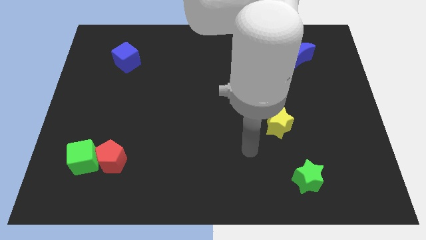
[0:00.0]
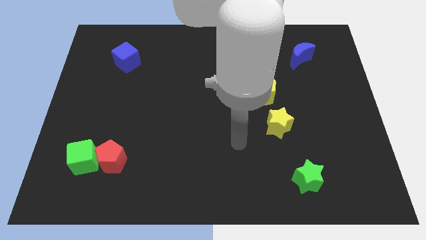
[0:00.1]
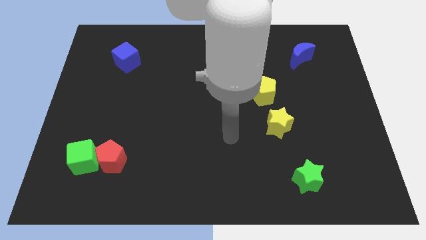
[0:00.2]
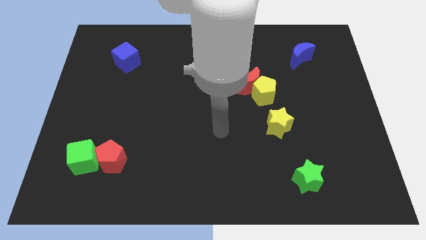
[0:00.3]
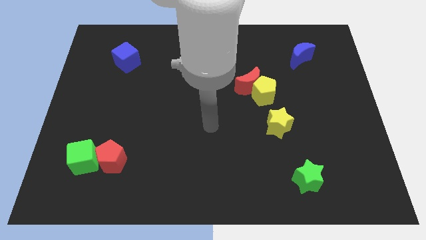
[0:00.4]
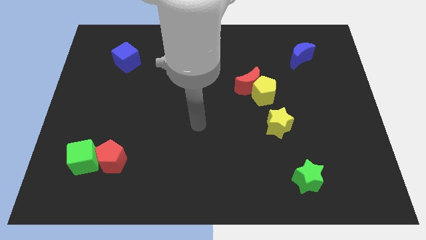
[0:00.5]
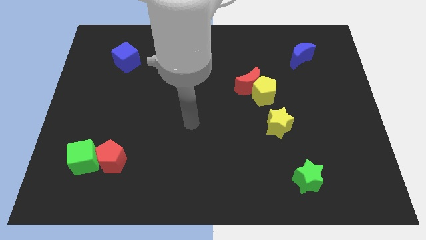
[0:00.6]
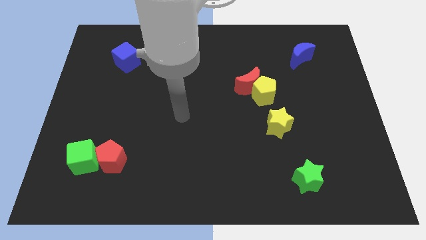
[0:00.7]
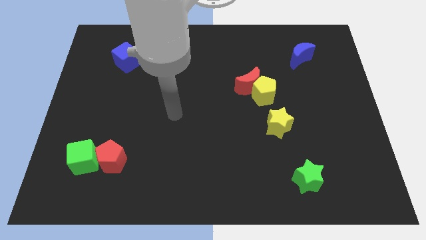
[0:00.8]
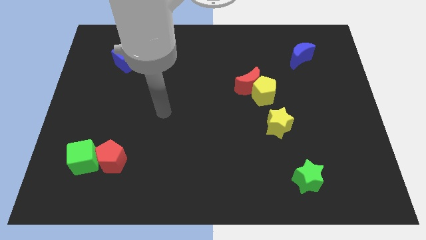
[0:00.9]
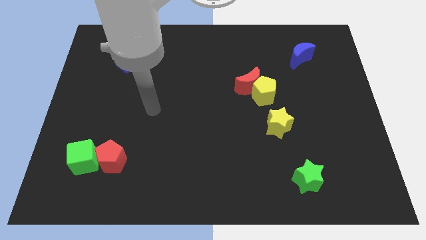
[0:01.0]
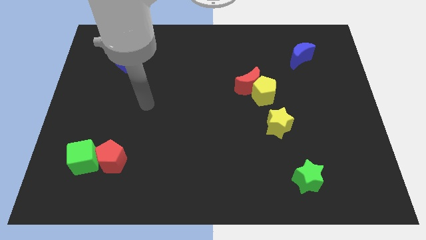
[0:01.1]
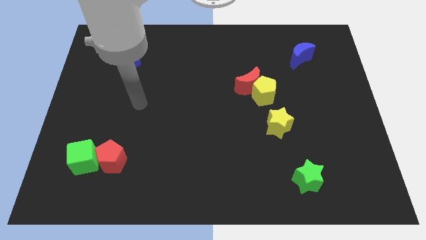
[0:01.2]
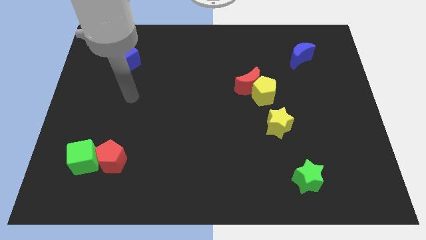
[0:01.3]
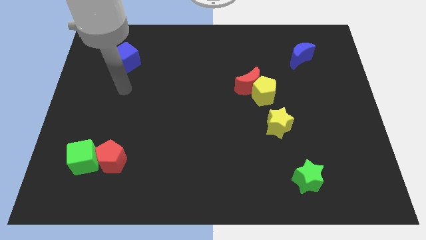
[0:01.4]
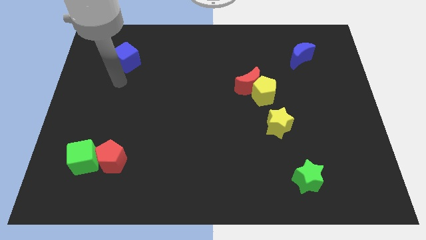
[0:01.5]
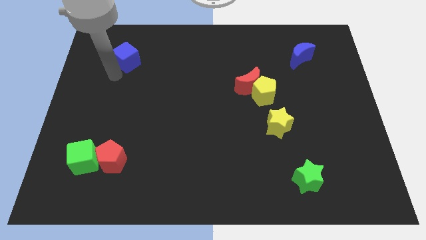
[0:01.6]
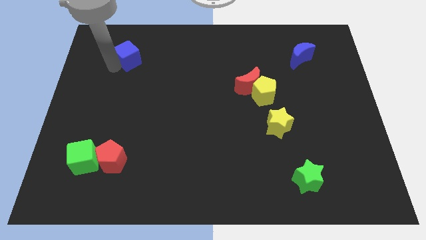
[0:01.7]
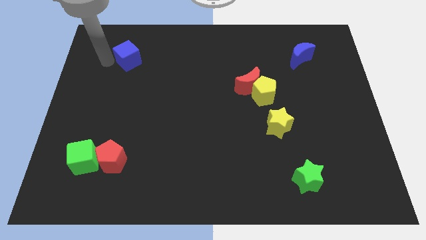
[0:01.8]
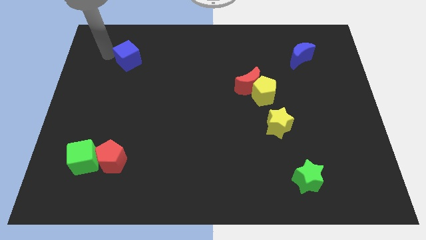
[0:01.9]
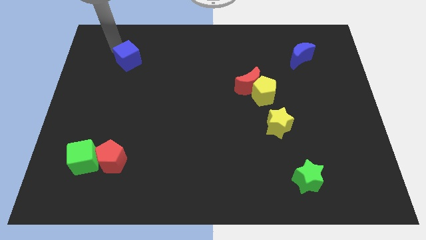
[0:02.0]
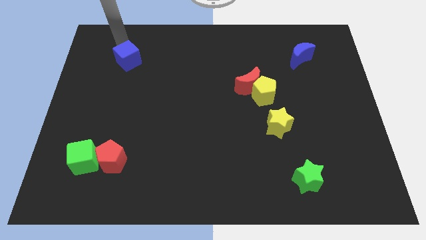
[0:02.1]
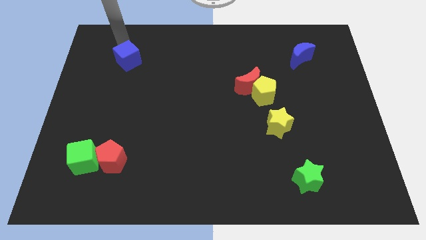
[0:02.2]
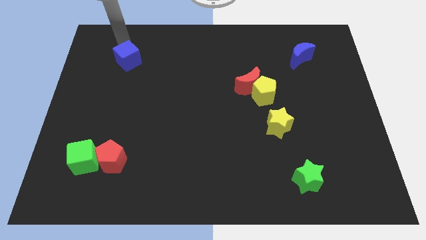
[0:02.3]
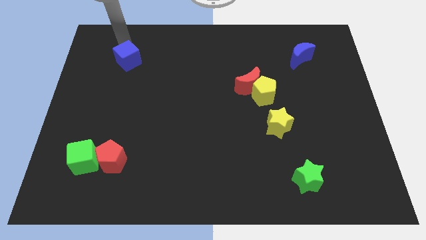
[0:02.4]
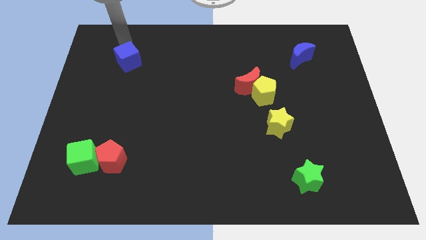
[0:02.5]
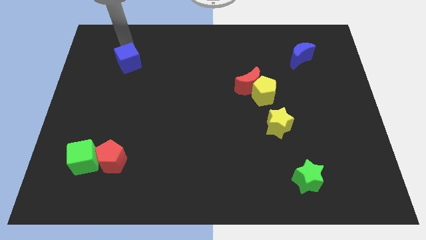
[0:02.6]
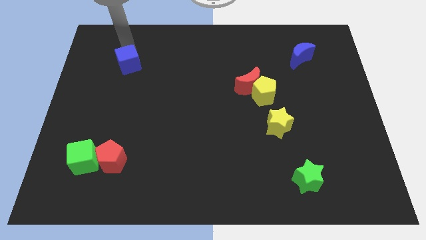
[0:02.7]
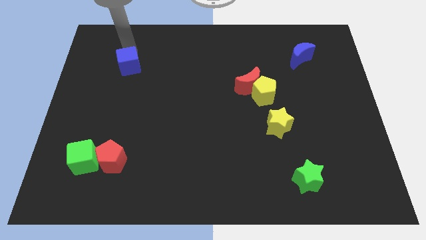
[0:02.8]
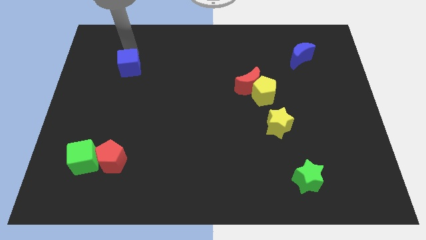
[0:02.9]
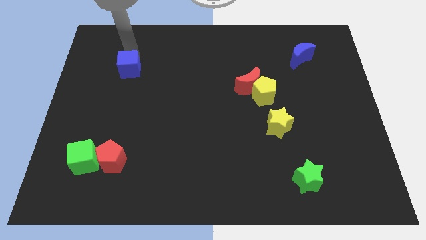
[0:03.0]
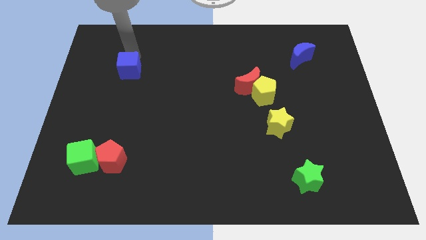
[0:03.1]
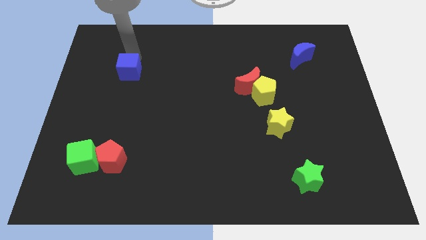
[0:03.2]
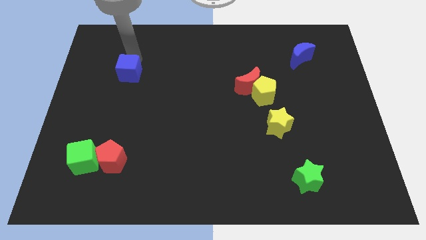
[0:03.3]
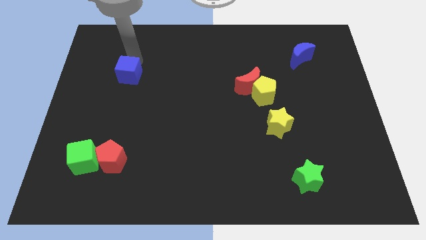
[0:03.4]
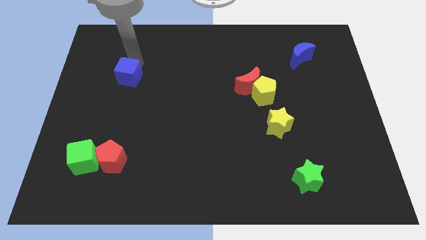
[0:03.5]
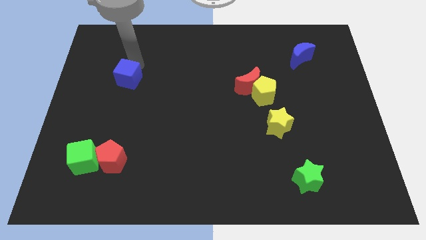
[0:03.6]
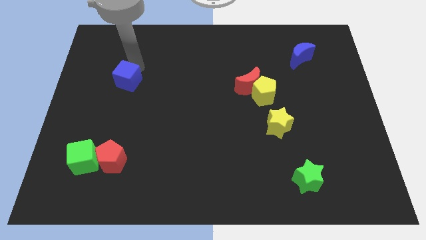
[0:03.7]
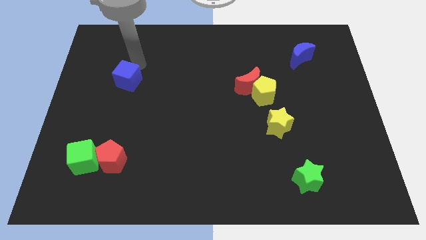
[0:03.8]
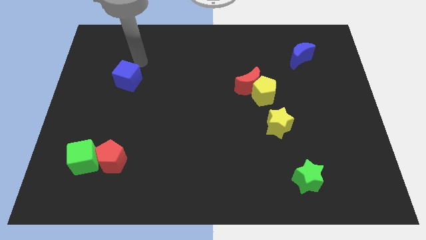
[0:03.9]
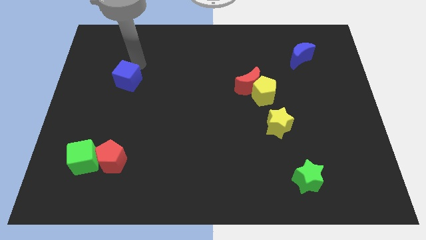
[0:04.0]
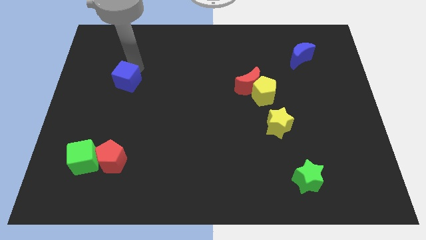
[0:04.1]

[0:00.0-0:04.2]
move the blue cube down a little

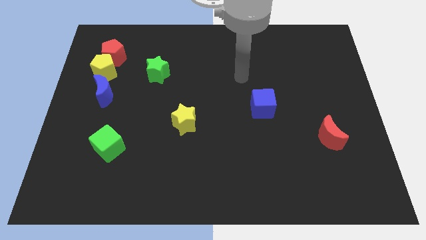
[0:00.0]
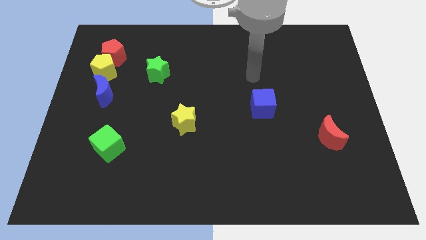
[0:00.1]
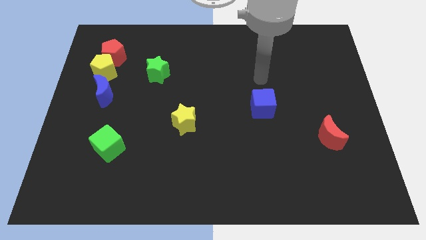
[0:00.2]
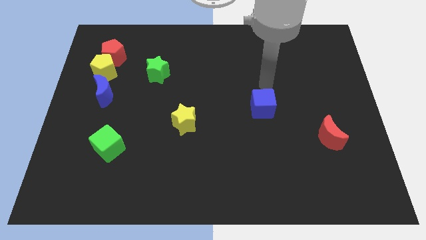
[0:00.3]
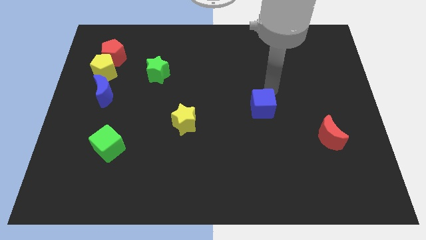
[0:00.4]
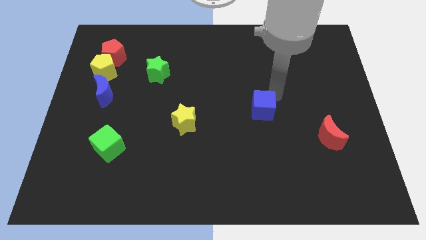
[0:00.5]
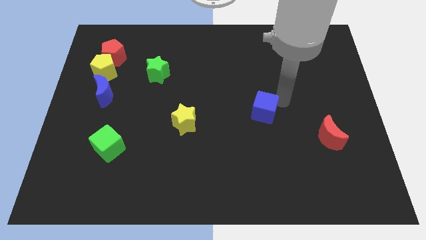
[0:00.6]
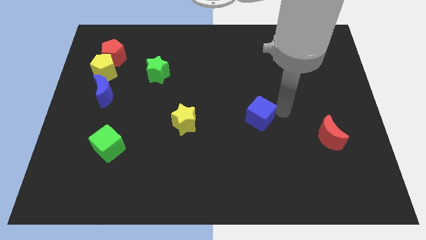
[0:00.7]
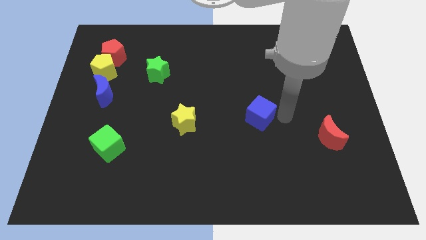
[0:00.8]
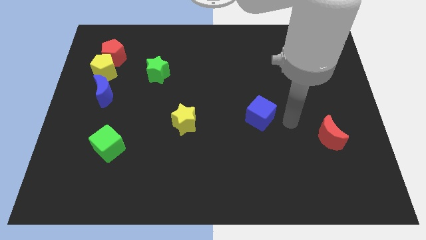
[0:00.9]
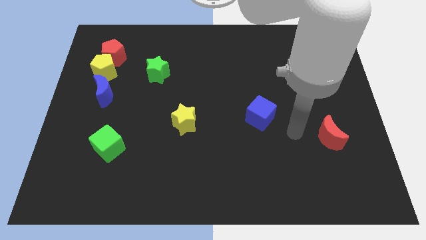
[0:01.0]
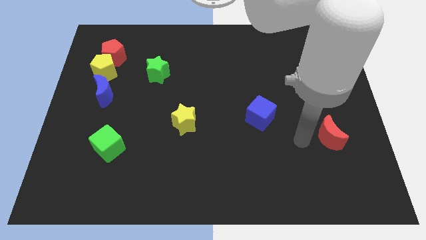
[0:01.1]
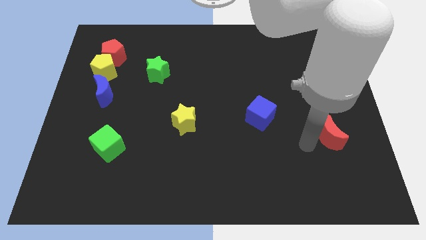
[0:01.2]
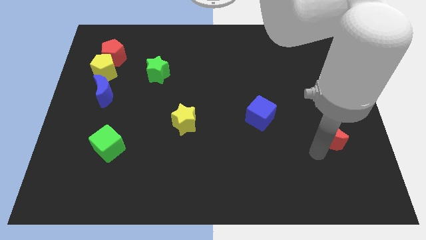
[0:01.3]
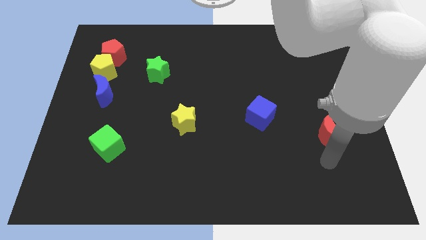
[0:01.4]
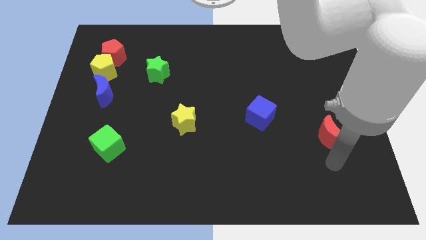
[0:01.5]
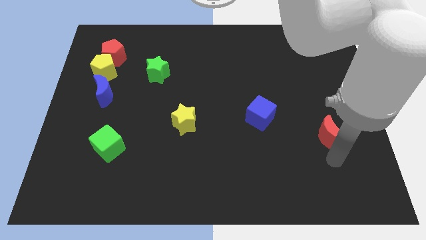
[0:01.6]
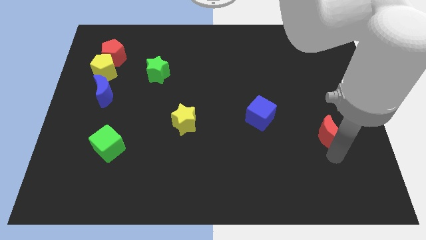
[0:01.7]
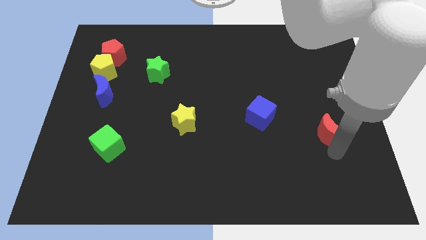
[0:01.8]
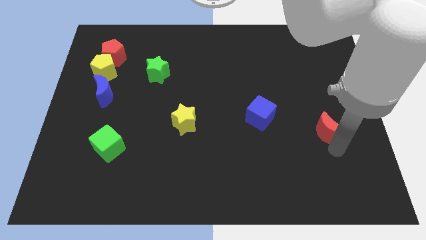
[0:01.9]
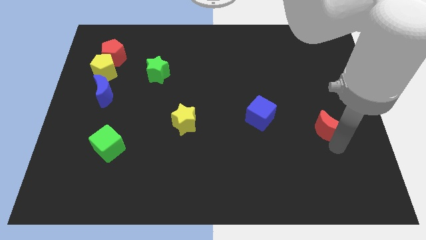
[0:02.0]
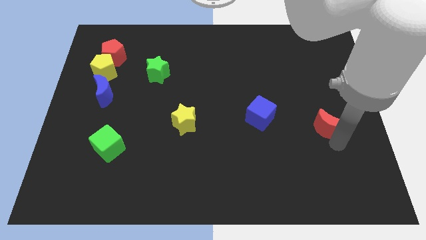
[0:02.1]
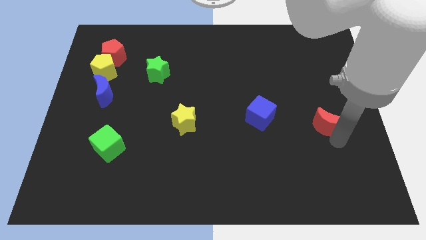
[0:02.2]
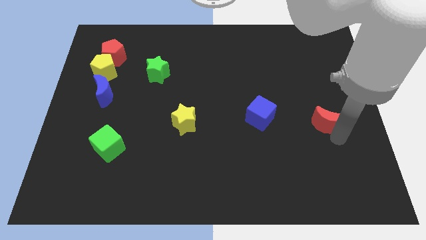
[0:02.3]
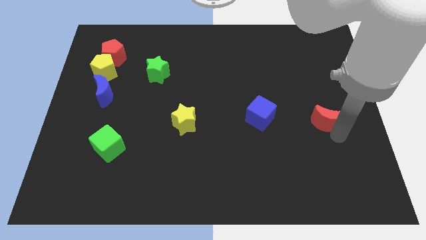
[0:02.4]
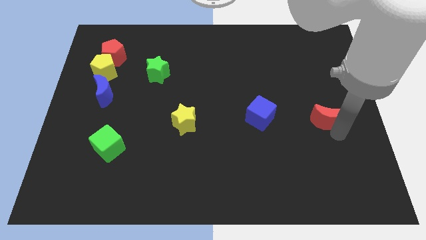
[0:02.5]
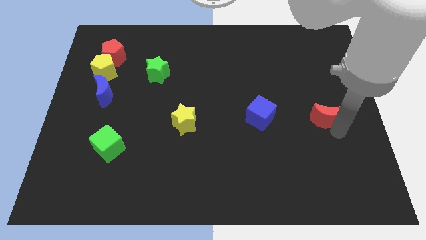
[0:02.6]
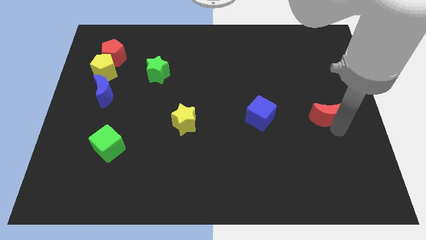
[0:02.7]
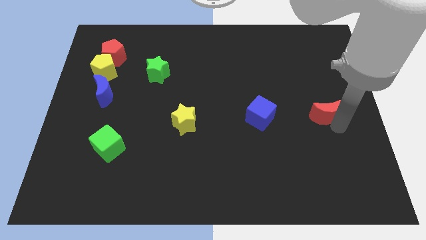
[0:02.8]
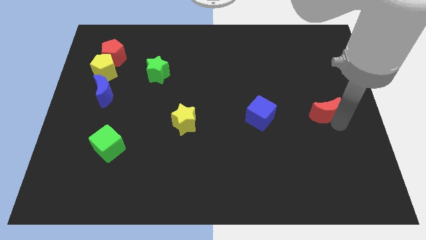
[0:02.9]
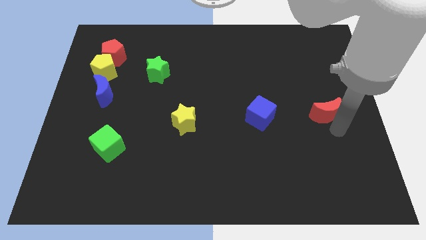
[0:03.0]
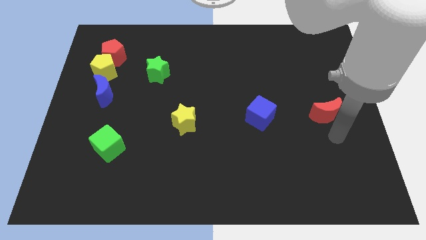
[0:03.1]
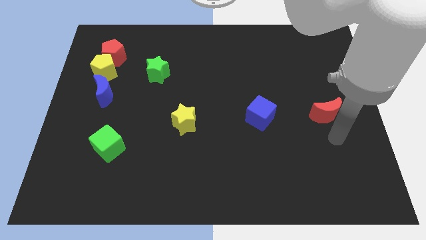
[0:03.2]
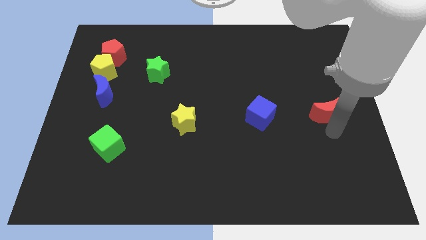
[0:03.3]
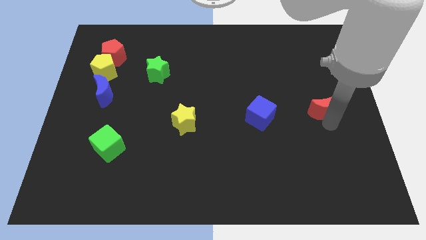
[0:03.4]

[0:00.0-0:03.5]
move the red moon somewhat up
